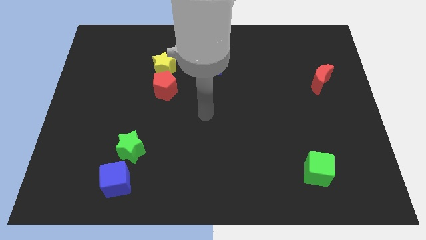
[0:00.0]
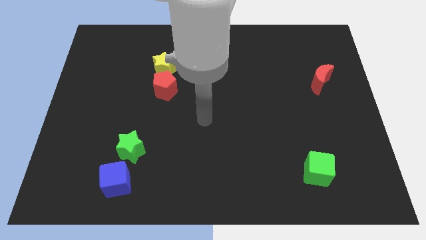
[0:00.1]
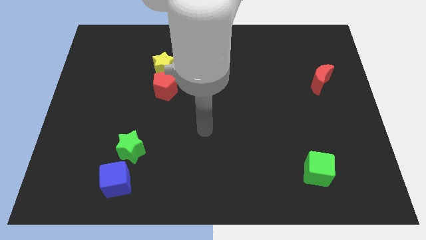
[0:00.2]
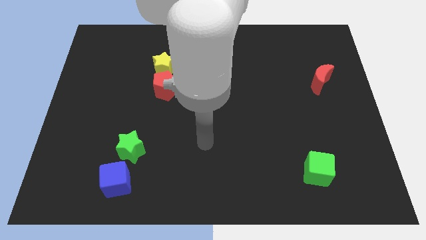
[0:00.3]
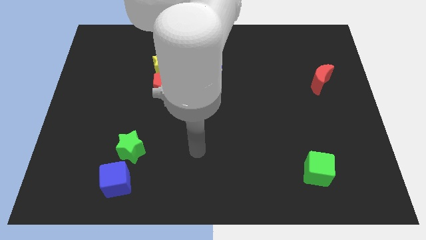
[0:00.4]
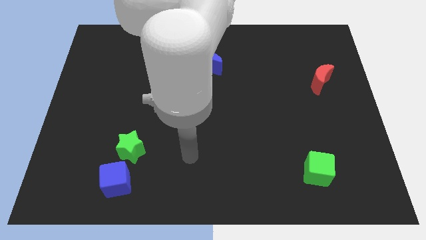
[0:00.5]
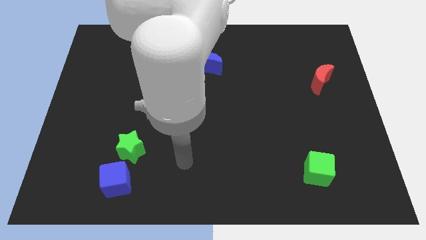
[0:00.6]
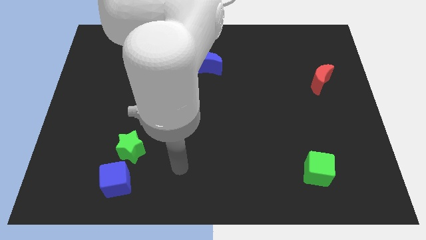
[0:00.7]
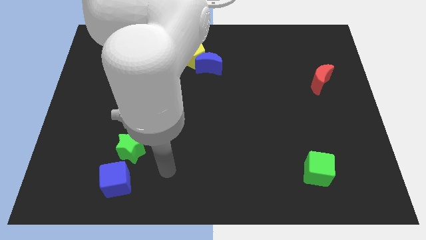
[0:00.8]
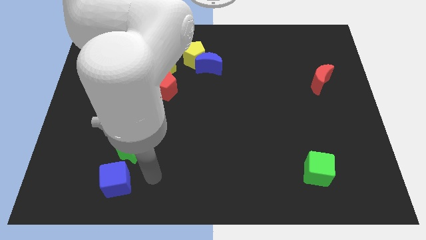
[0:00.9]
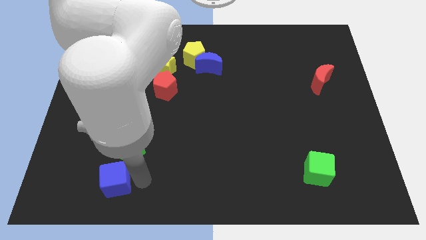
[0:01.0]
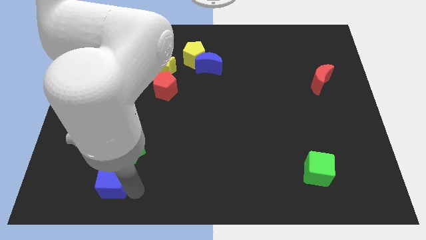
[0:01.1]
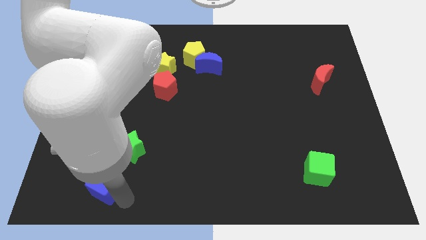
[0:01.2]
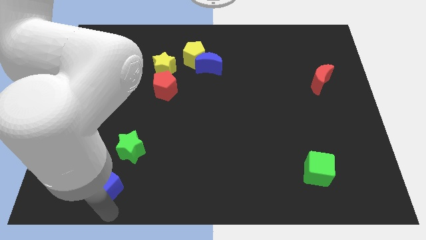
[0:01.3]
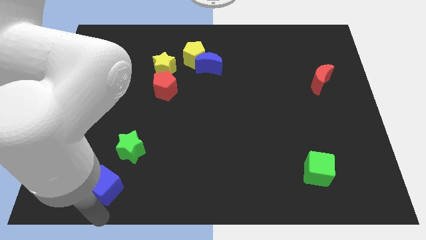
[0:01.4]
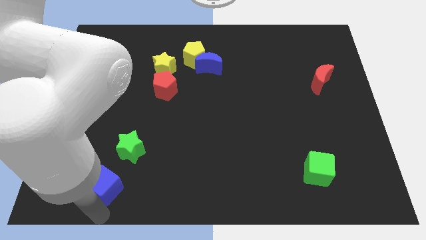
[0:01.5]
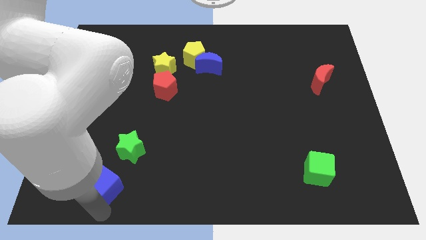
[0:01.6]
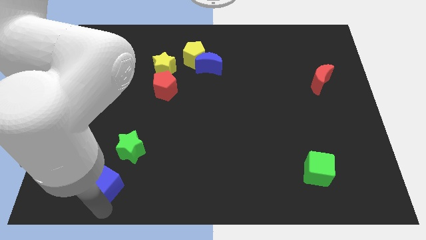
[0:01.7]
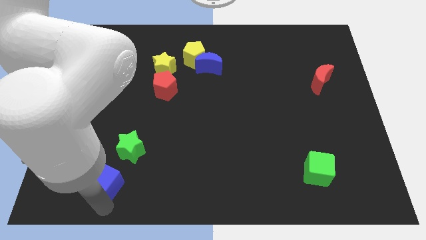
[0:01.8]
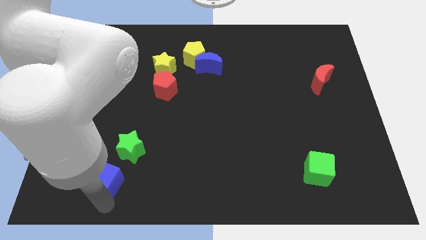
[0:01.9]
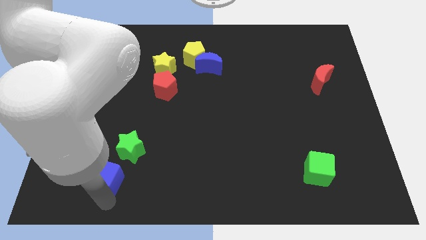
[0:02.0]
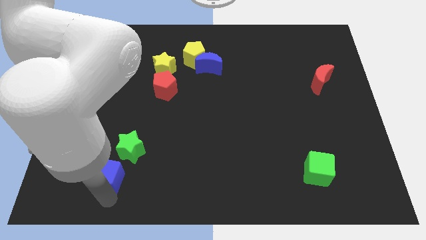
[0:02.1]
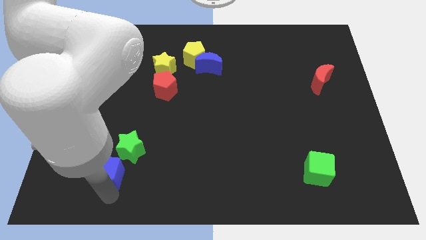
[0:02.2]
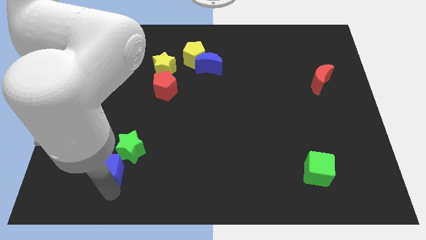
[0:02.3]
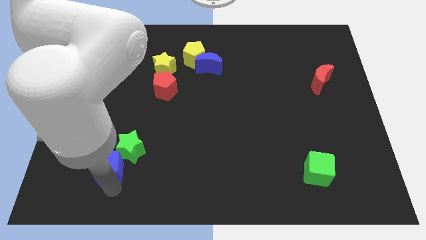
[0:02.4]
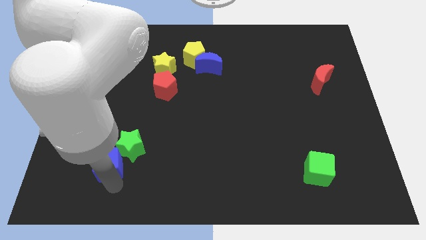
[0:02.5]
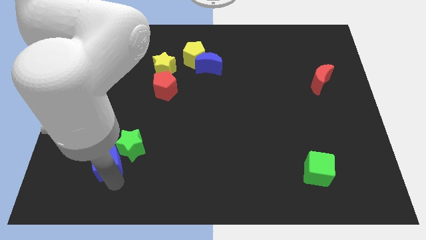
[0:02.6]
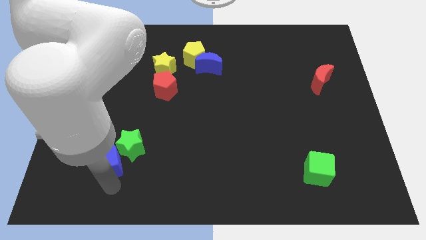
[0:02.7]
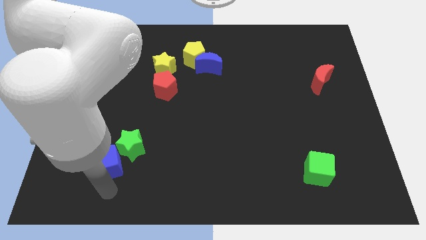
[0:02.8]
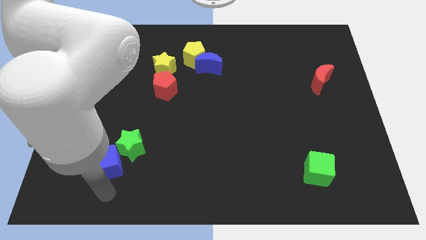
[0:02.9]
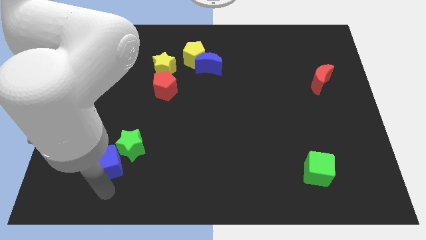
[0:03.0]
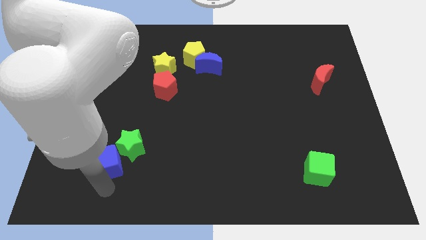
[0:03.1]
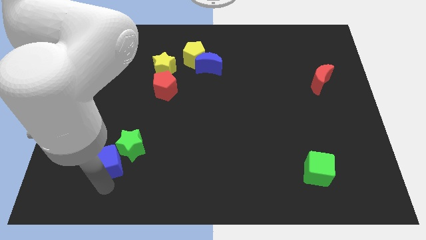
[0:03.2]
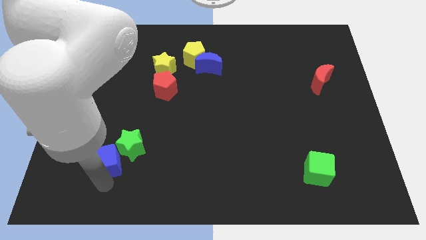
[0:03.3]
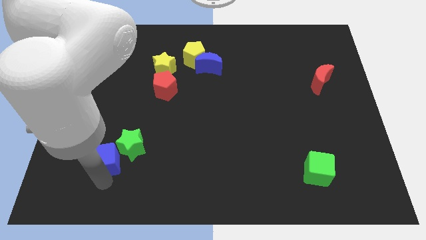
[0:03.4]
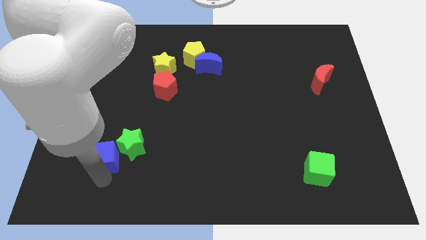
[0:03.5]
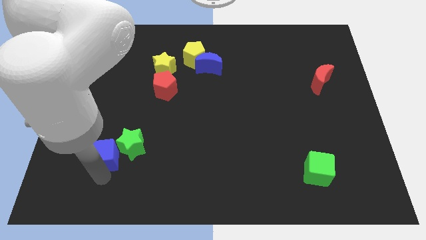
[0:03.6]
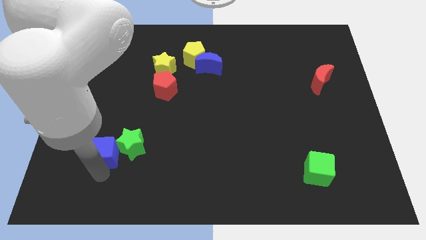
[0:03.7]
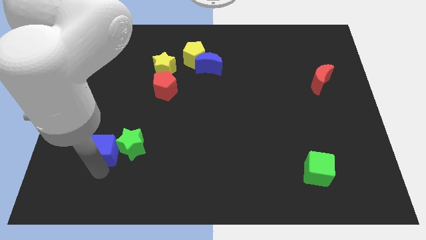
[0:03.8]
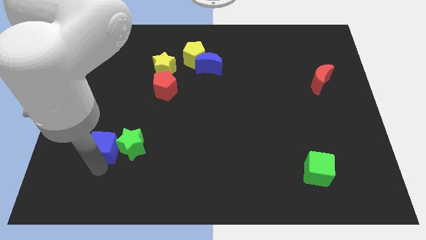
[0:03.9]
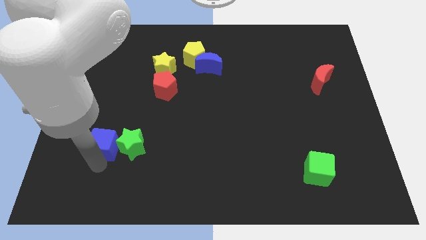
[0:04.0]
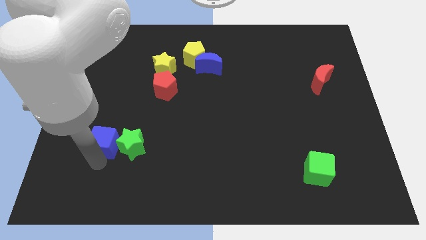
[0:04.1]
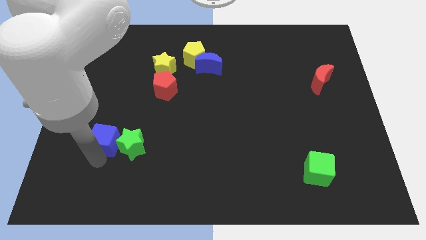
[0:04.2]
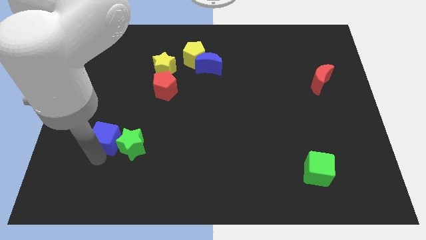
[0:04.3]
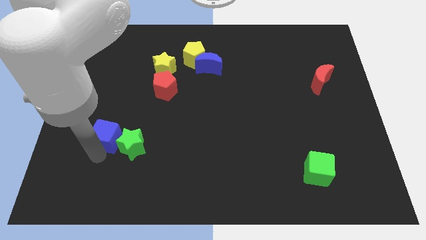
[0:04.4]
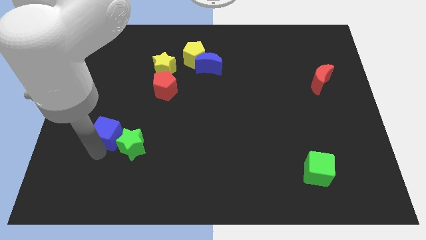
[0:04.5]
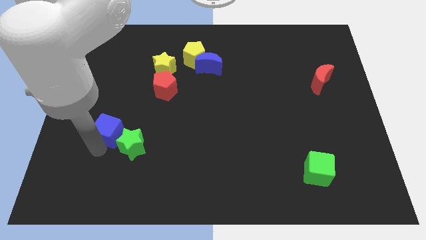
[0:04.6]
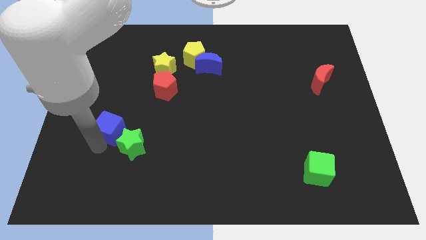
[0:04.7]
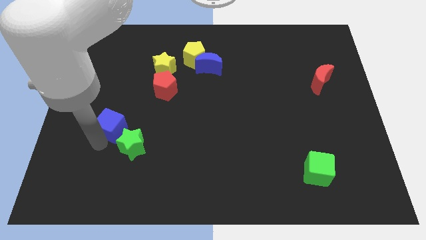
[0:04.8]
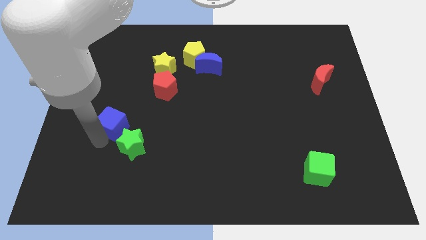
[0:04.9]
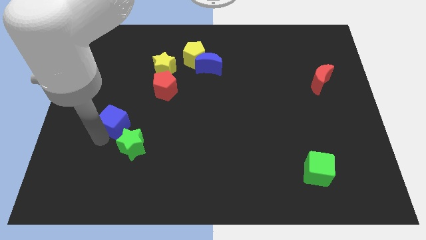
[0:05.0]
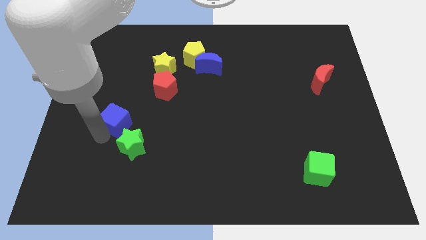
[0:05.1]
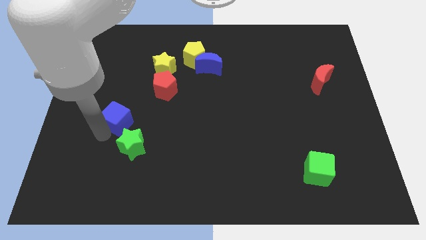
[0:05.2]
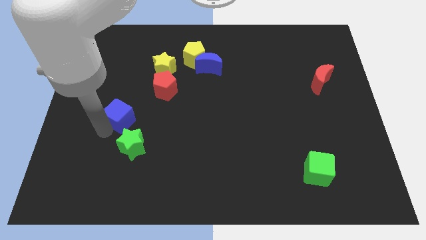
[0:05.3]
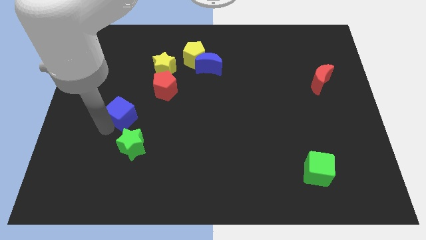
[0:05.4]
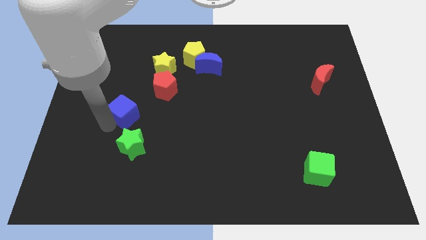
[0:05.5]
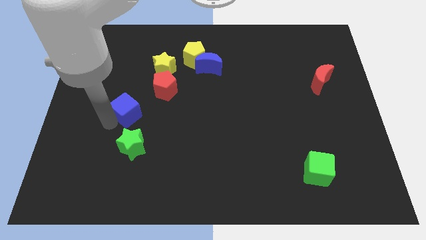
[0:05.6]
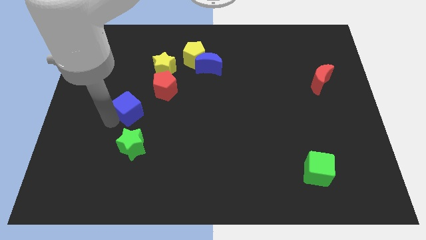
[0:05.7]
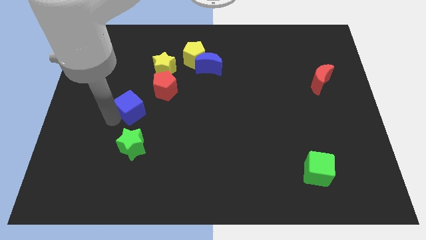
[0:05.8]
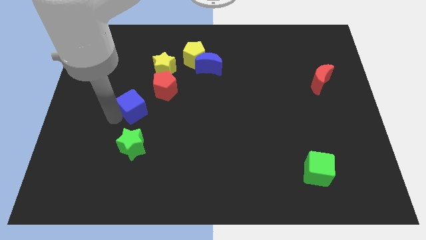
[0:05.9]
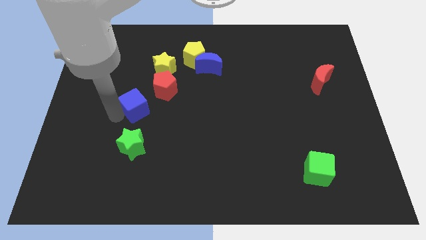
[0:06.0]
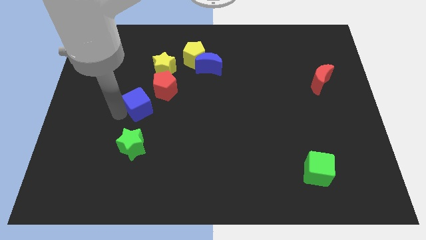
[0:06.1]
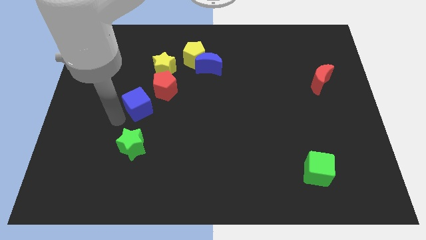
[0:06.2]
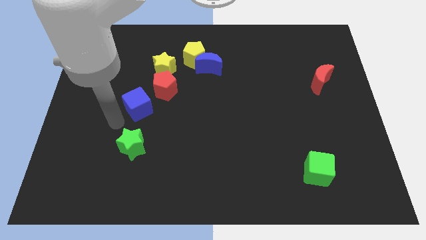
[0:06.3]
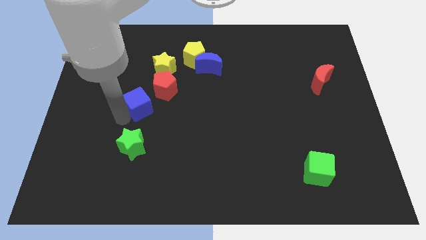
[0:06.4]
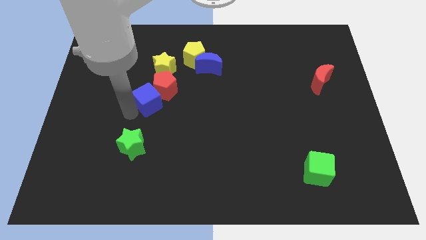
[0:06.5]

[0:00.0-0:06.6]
put the blue cube towards the red pentagon

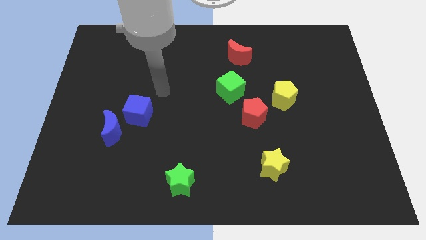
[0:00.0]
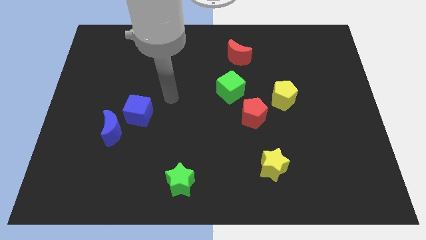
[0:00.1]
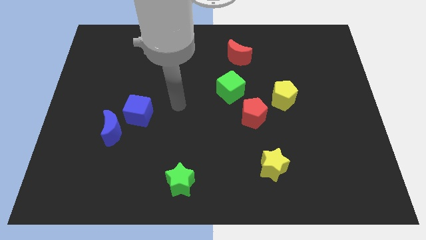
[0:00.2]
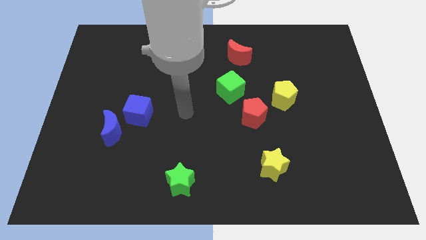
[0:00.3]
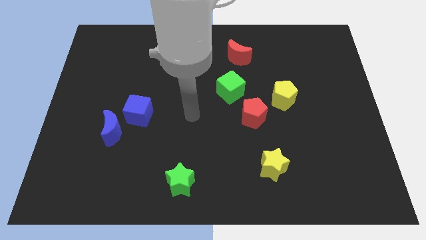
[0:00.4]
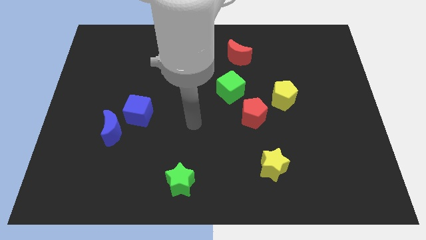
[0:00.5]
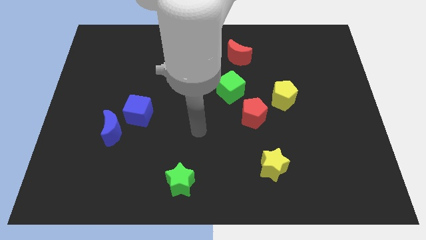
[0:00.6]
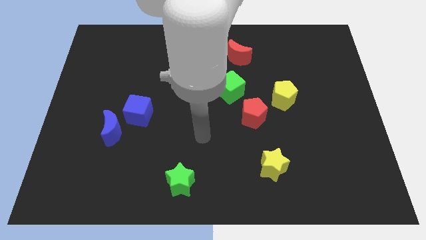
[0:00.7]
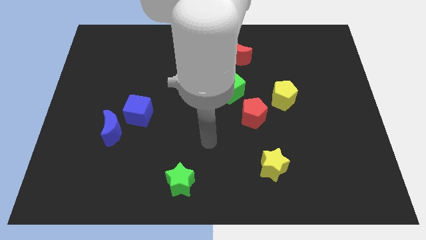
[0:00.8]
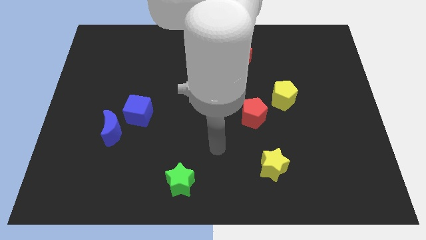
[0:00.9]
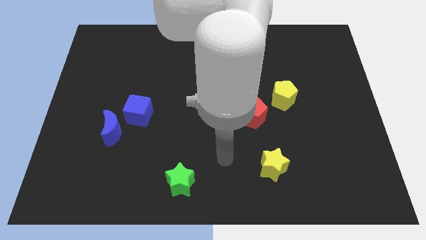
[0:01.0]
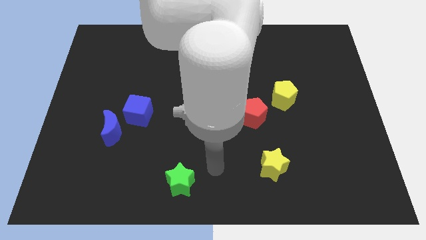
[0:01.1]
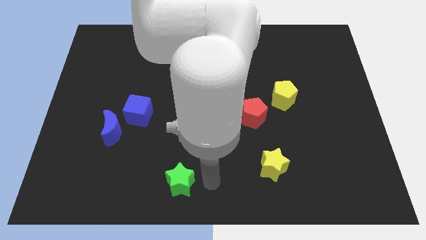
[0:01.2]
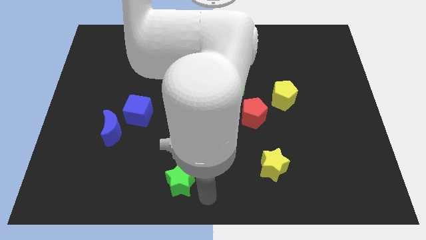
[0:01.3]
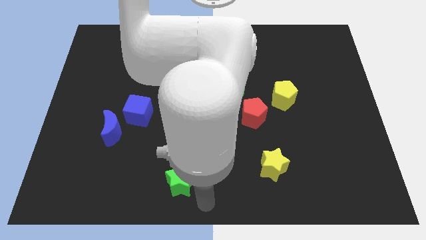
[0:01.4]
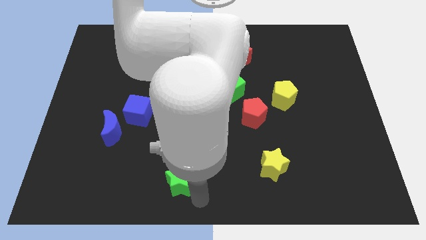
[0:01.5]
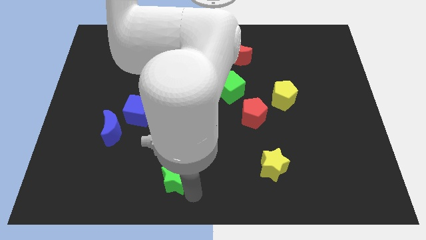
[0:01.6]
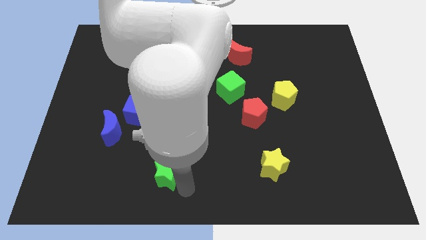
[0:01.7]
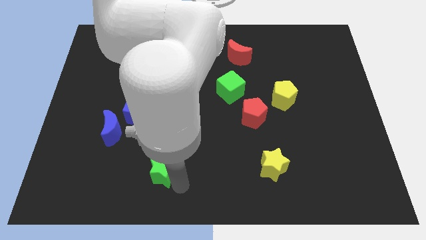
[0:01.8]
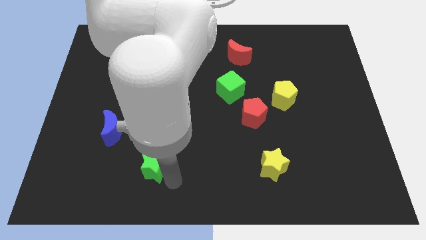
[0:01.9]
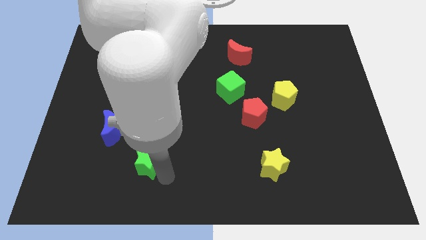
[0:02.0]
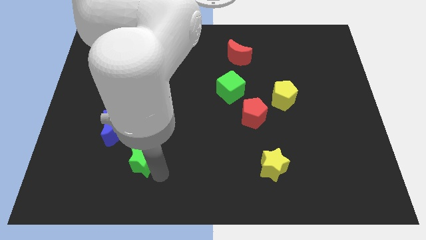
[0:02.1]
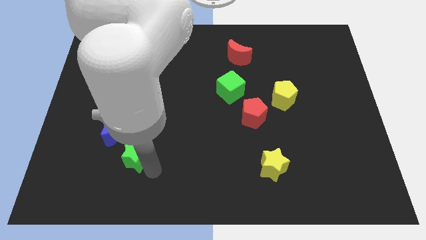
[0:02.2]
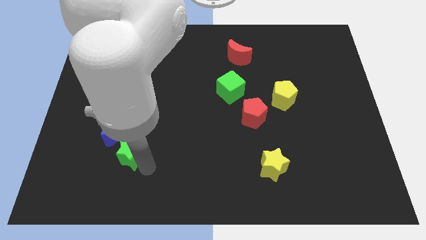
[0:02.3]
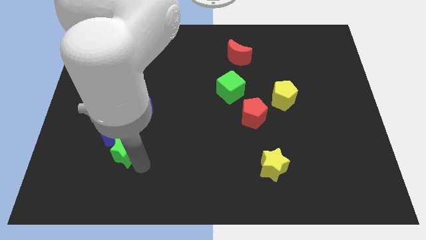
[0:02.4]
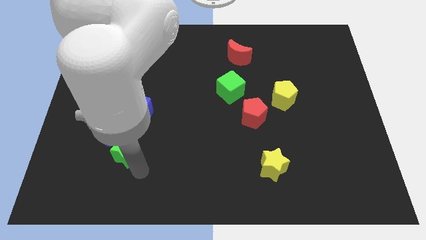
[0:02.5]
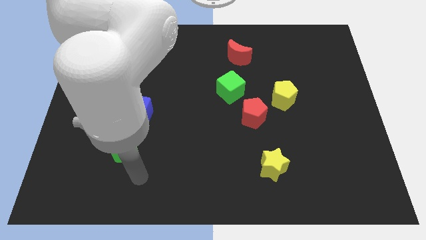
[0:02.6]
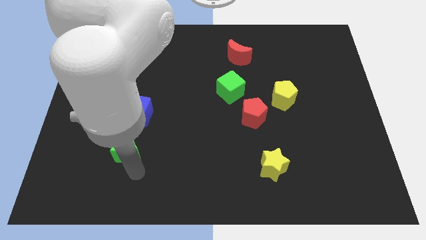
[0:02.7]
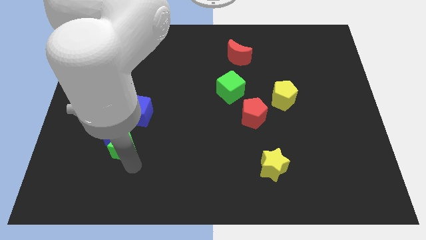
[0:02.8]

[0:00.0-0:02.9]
move the green star towards the blue moon
